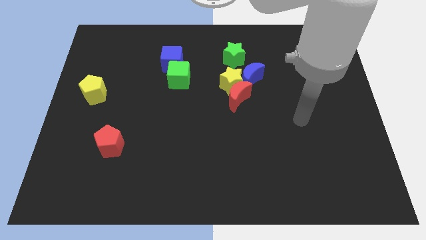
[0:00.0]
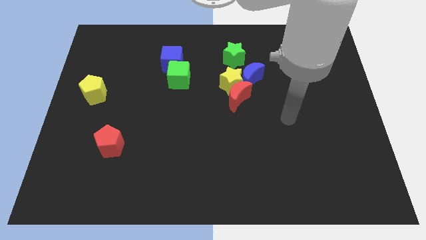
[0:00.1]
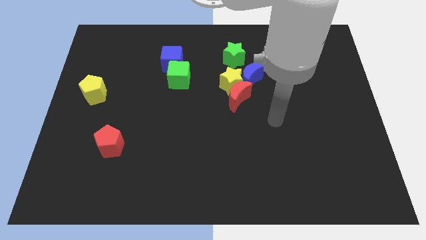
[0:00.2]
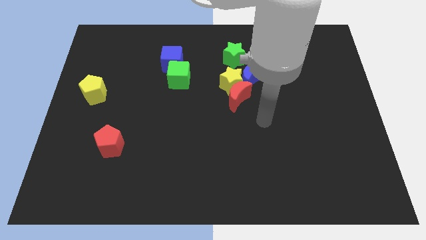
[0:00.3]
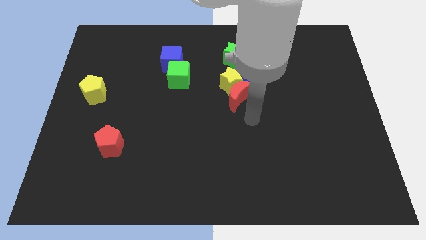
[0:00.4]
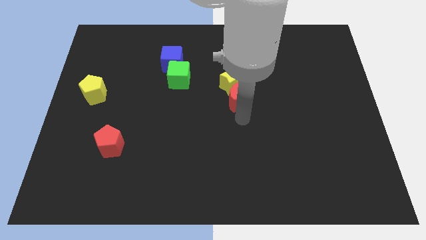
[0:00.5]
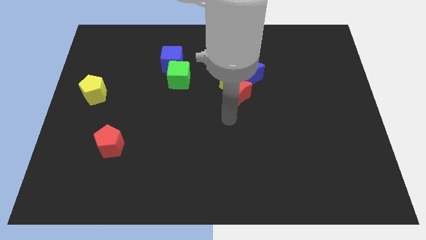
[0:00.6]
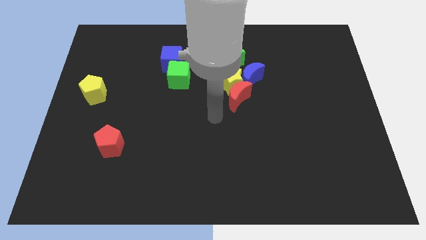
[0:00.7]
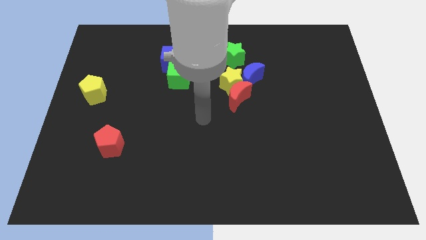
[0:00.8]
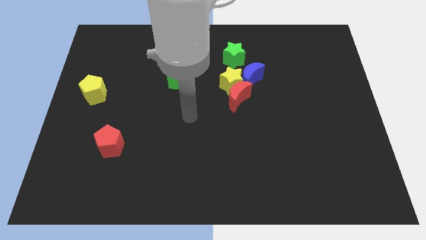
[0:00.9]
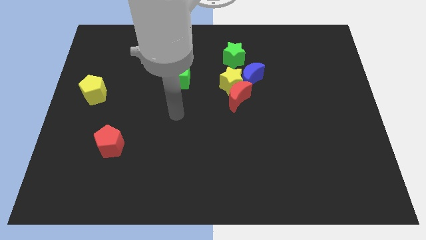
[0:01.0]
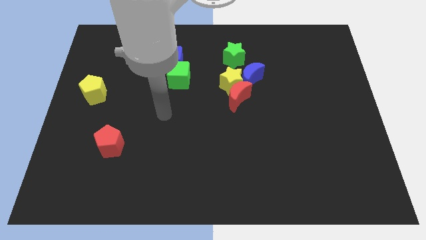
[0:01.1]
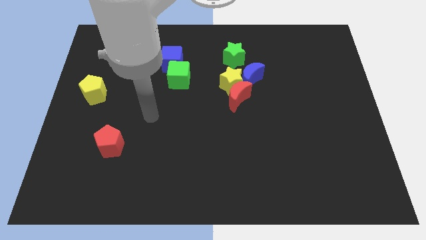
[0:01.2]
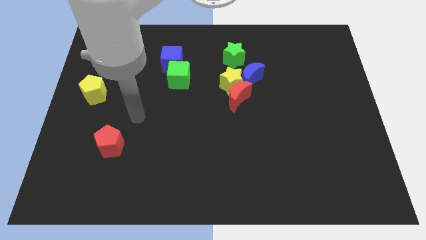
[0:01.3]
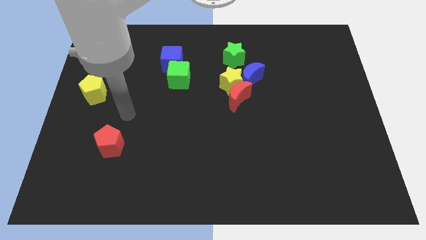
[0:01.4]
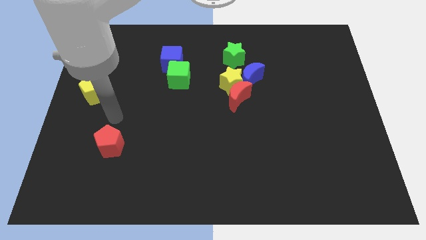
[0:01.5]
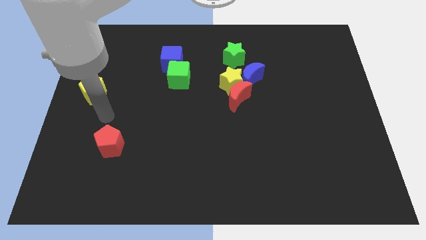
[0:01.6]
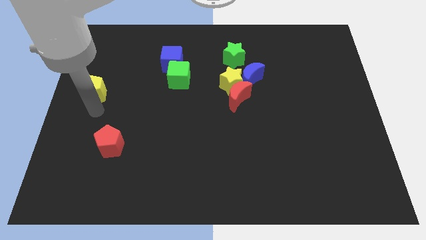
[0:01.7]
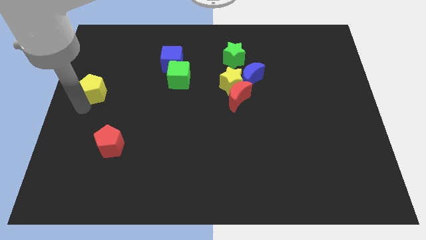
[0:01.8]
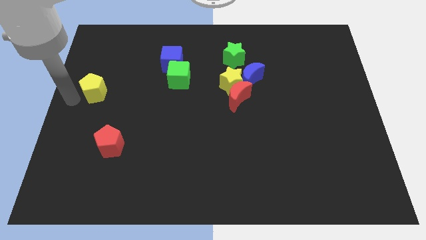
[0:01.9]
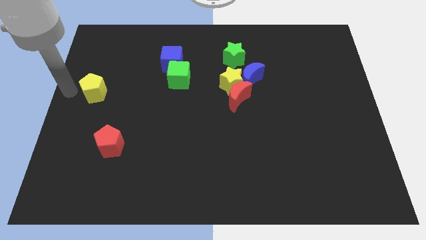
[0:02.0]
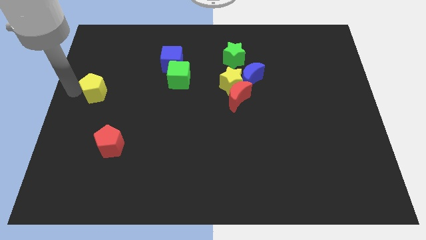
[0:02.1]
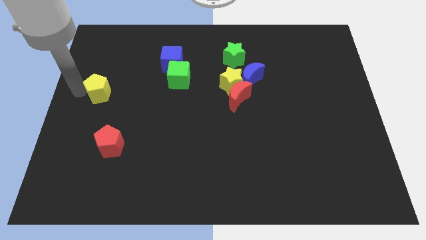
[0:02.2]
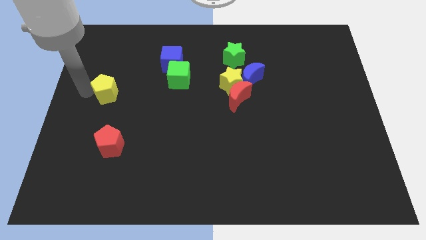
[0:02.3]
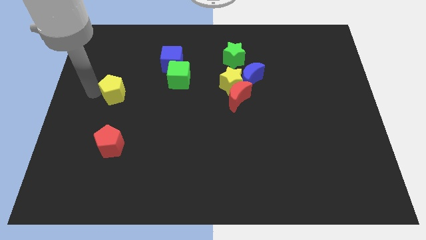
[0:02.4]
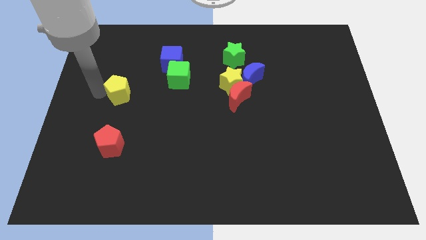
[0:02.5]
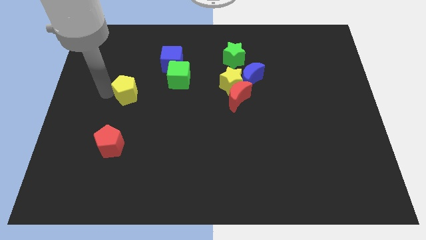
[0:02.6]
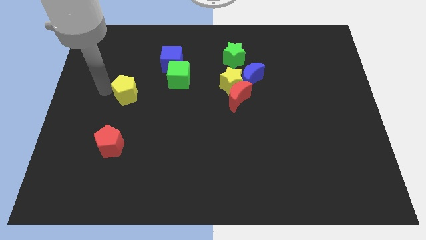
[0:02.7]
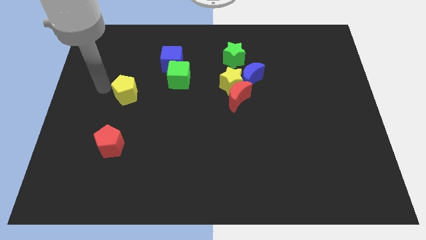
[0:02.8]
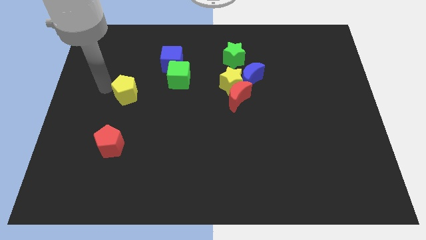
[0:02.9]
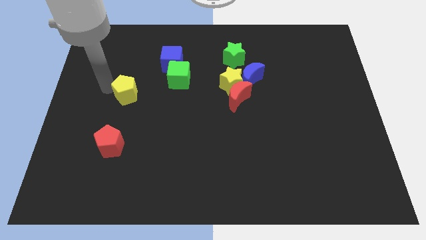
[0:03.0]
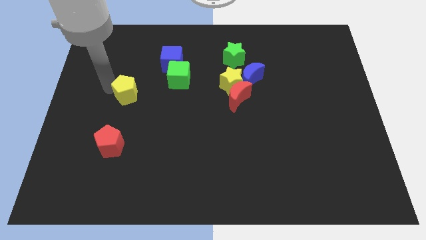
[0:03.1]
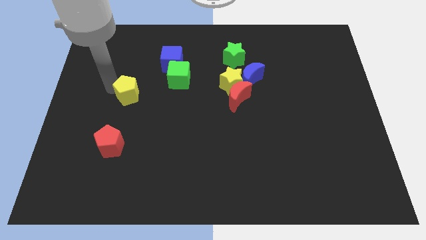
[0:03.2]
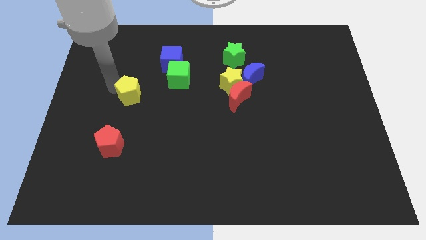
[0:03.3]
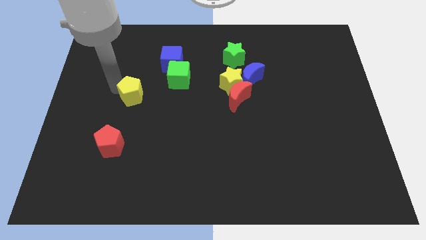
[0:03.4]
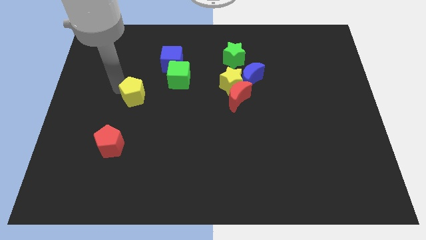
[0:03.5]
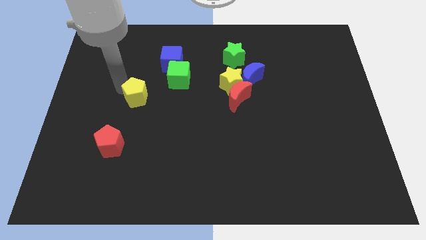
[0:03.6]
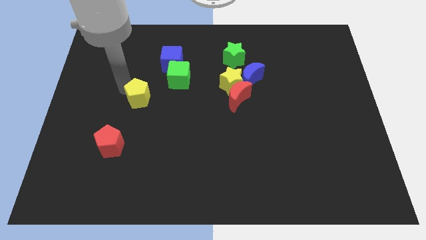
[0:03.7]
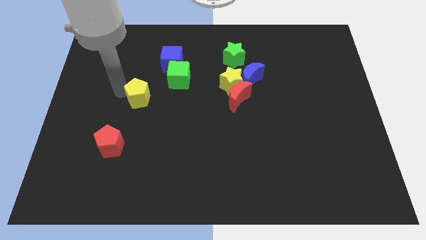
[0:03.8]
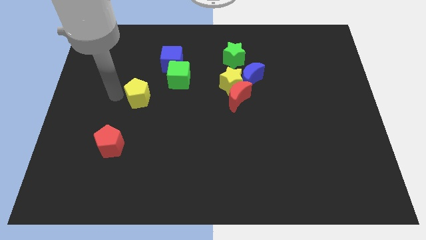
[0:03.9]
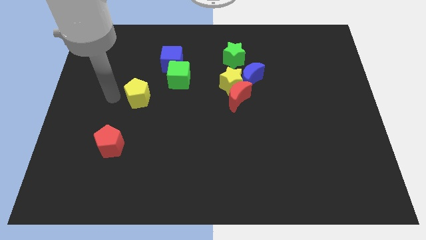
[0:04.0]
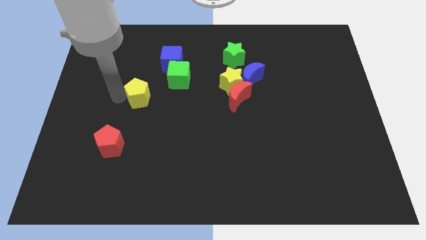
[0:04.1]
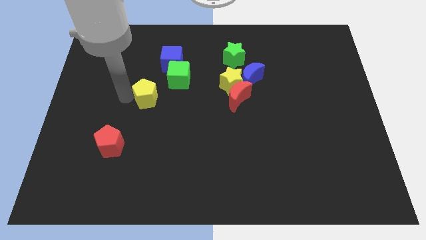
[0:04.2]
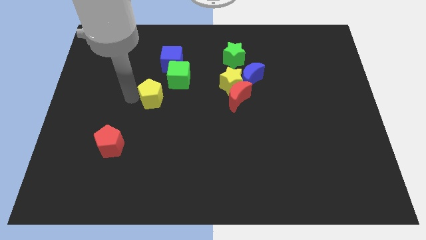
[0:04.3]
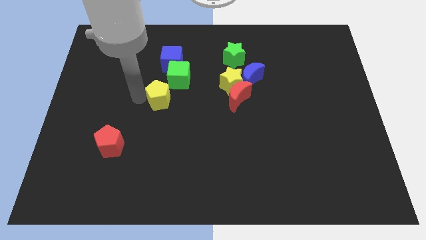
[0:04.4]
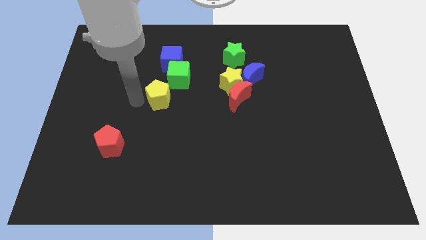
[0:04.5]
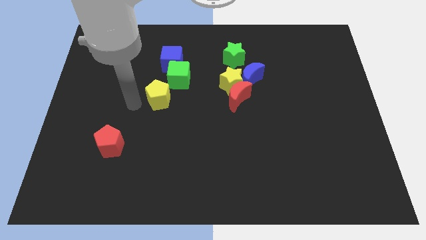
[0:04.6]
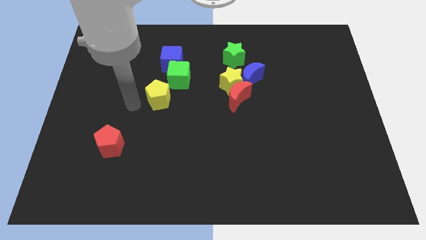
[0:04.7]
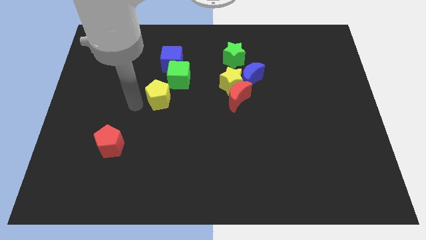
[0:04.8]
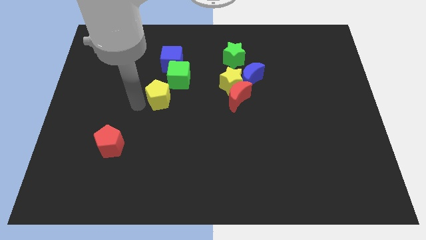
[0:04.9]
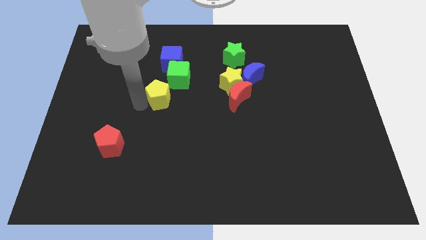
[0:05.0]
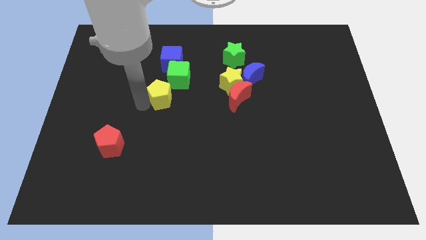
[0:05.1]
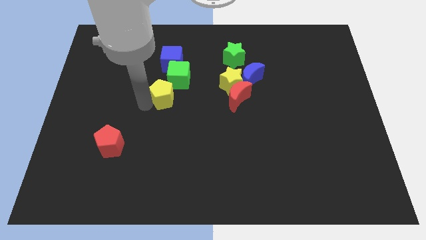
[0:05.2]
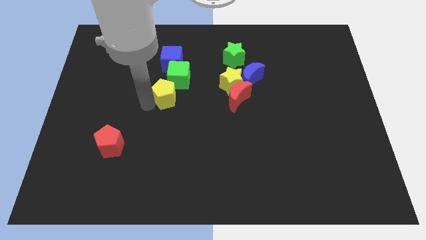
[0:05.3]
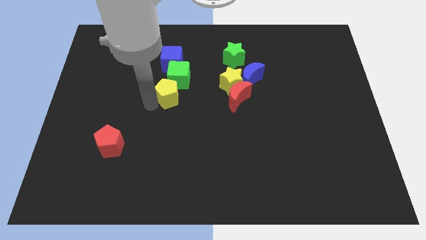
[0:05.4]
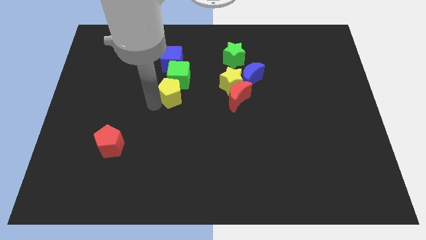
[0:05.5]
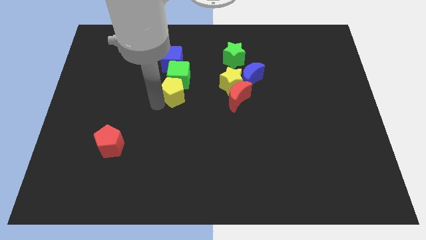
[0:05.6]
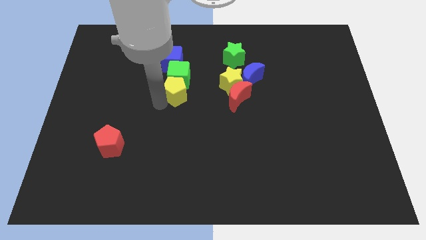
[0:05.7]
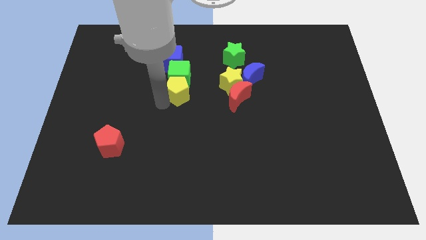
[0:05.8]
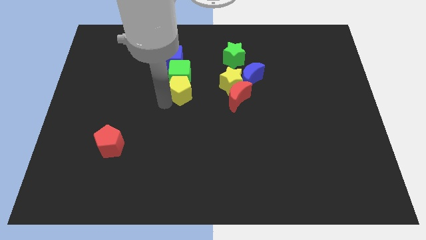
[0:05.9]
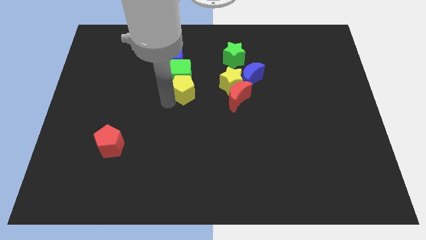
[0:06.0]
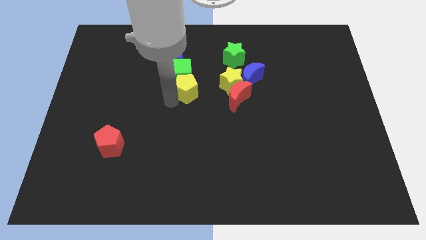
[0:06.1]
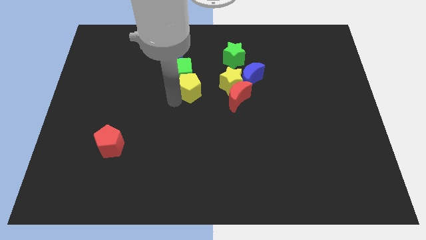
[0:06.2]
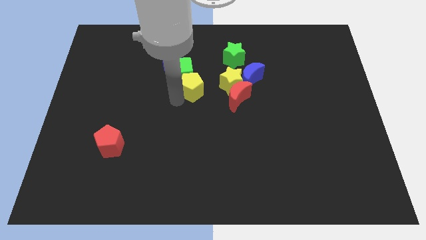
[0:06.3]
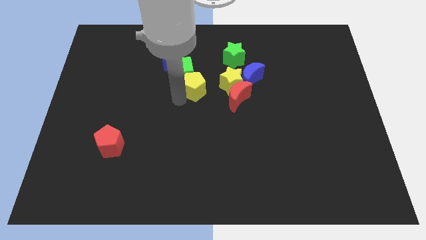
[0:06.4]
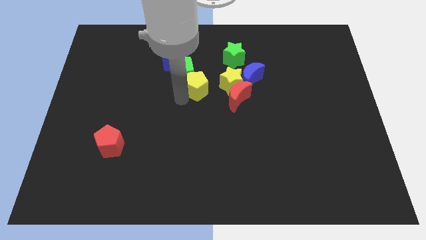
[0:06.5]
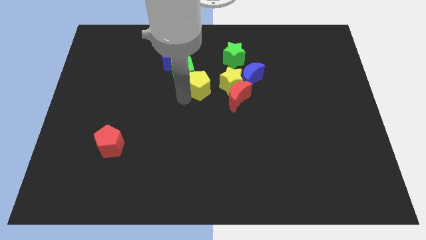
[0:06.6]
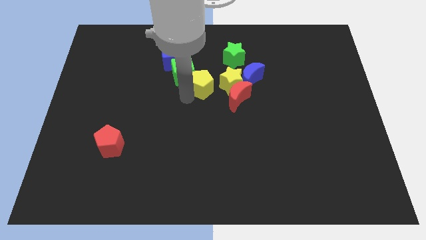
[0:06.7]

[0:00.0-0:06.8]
push the yellow pentagon to the bottom left side of the green star

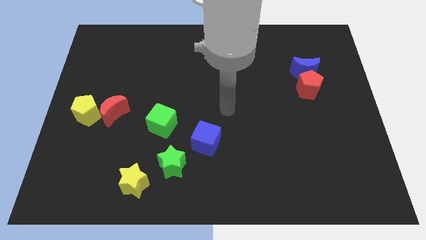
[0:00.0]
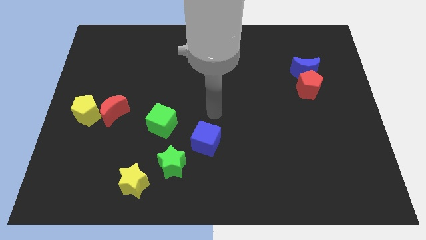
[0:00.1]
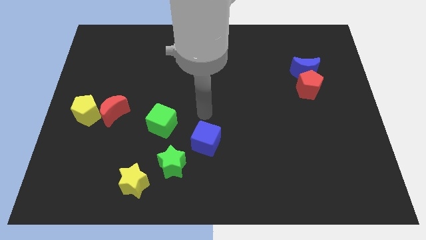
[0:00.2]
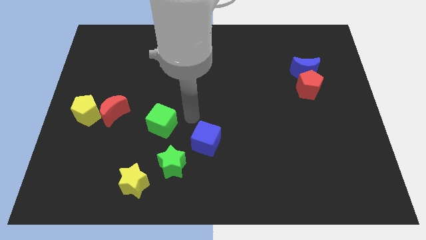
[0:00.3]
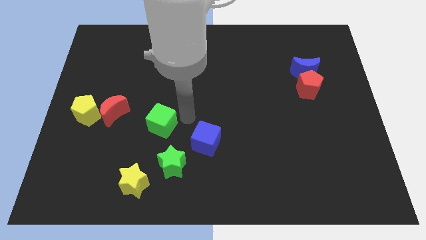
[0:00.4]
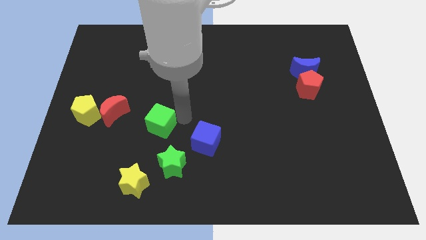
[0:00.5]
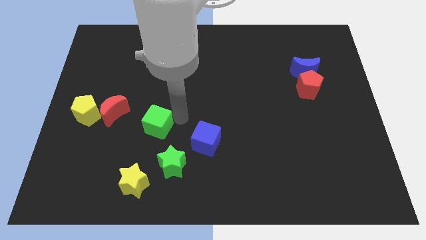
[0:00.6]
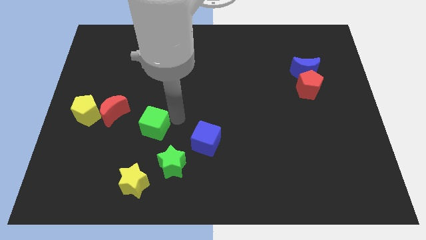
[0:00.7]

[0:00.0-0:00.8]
slide the green cube diagonally down and to the right of the red moon
